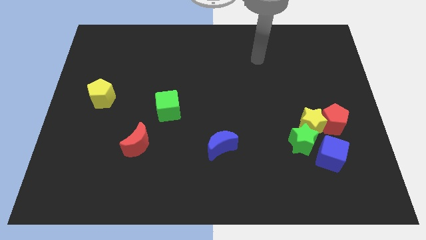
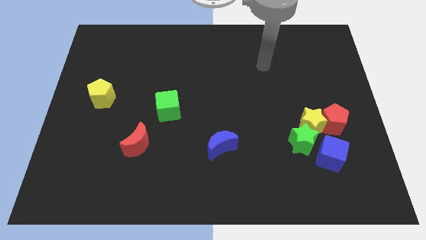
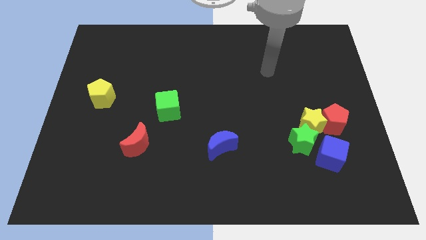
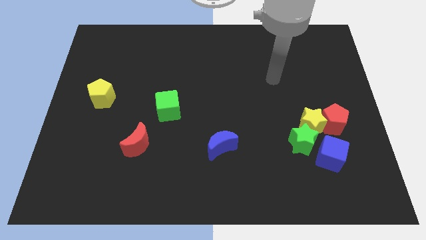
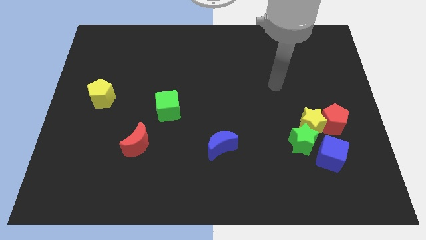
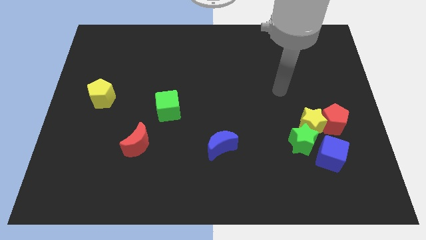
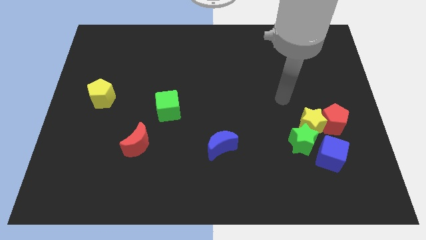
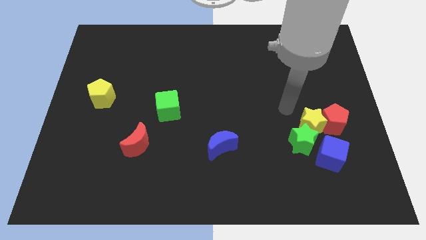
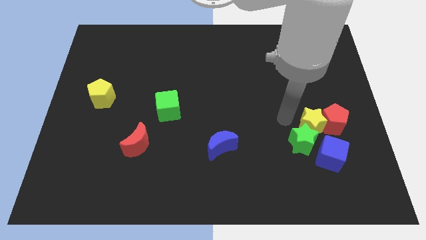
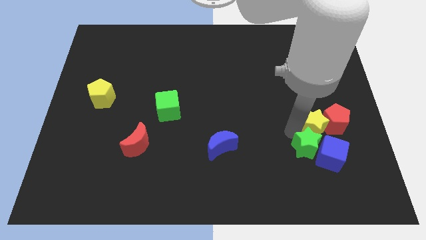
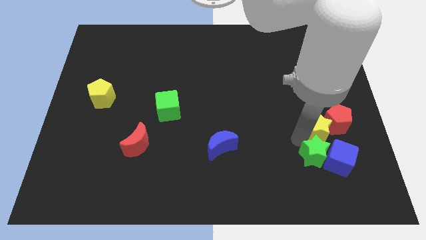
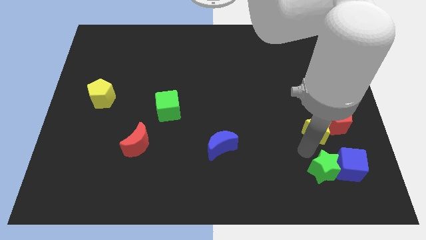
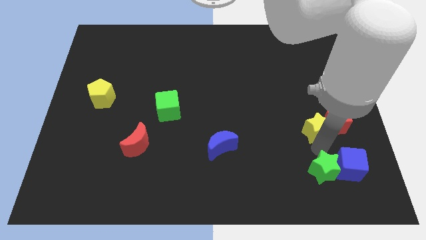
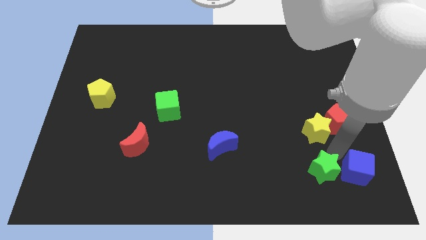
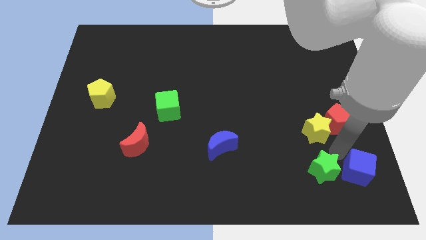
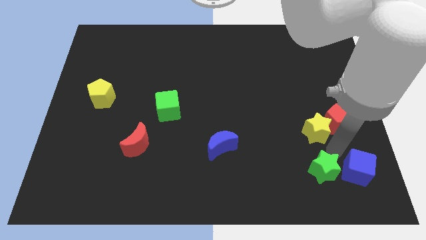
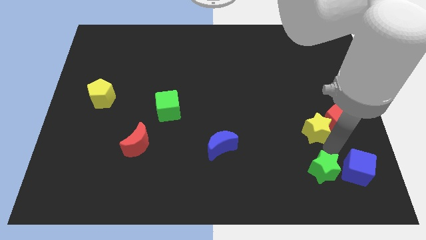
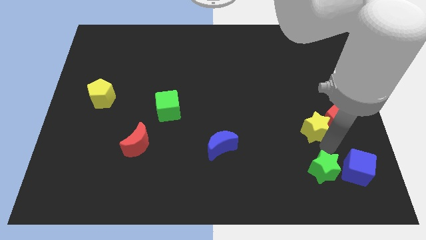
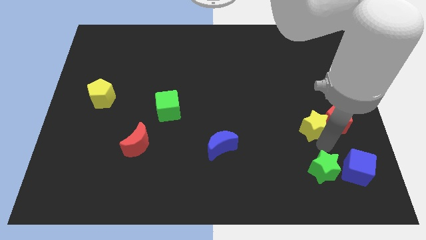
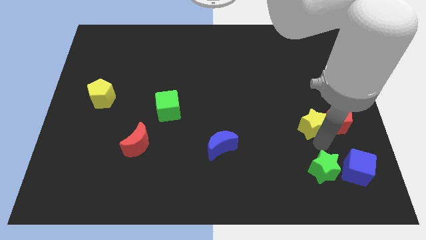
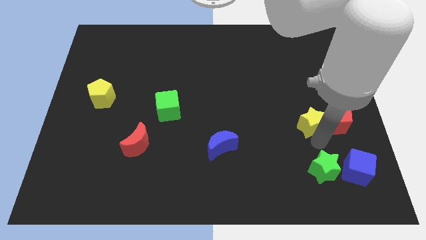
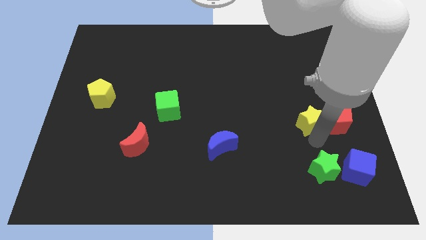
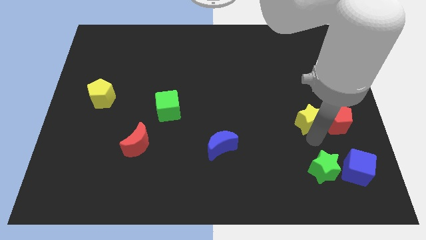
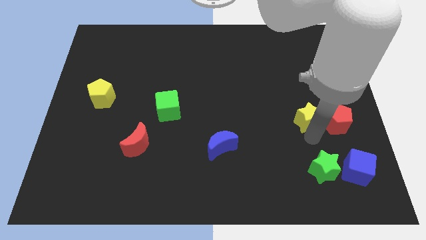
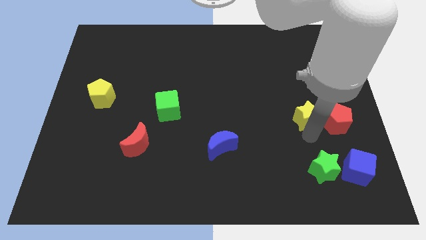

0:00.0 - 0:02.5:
pull the yellow star apart from the green star, red pentagon, and blue cube

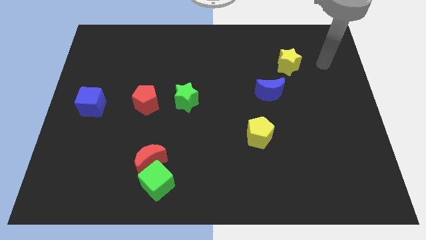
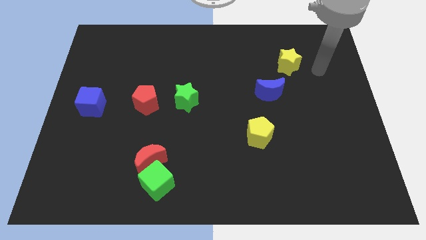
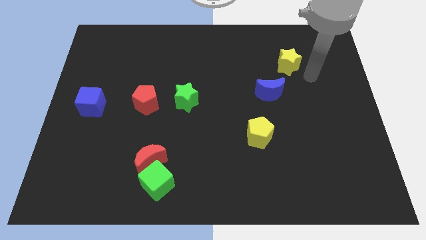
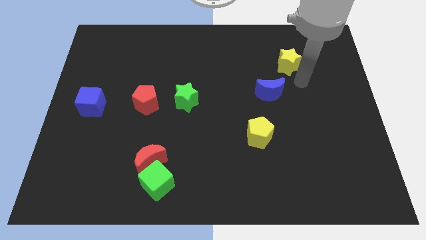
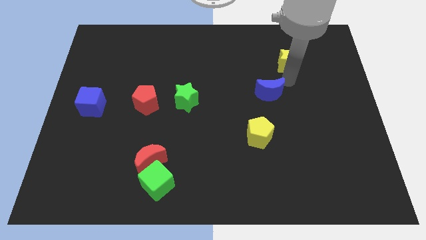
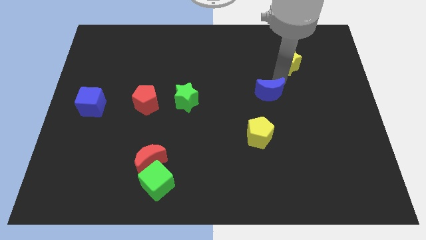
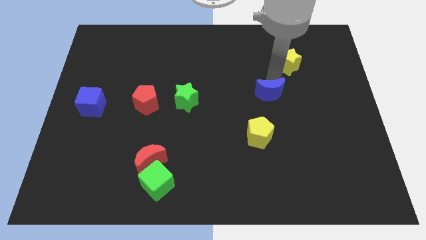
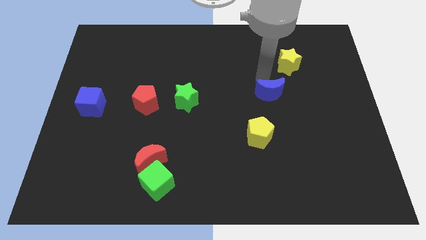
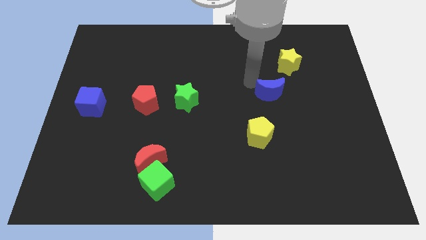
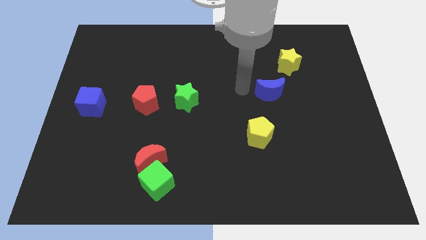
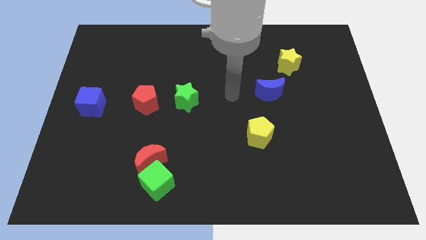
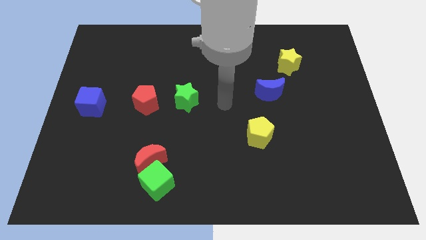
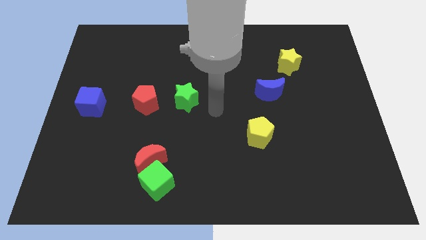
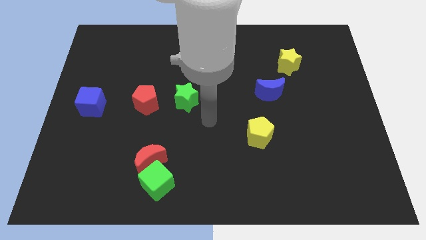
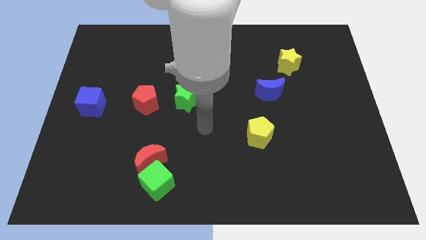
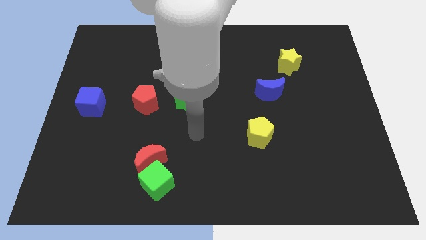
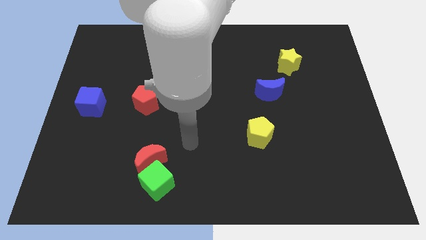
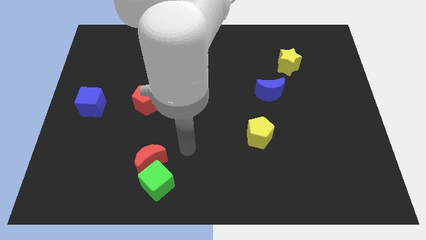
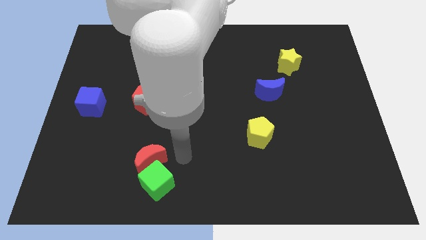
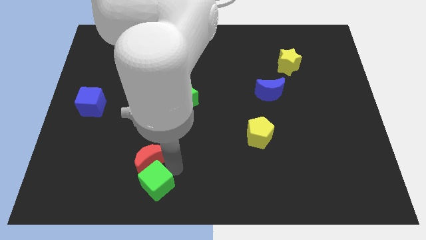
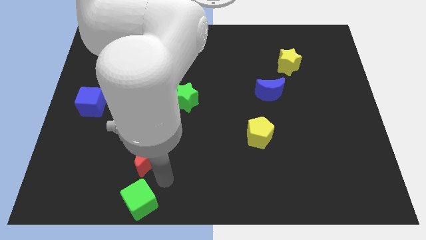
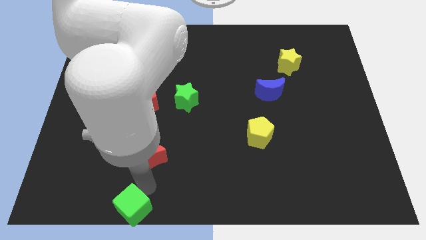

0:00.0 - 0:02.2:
separate the red moon from the green cube

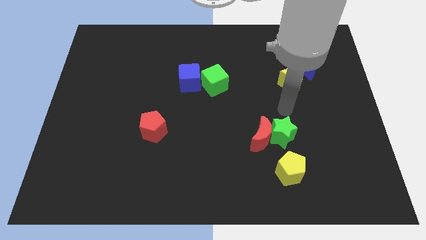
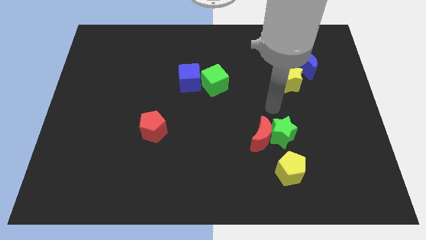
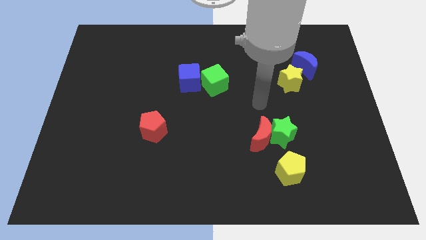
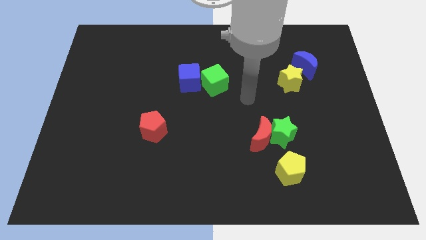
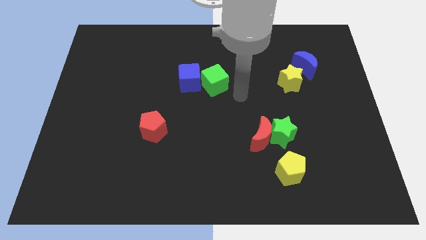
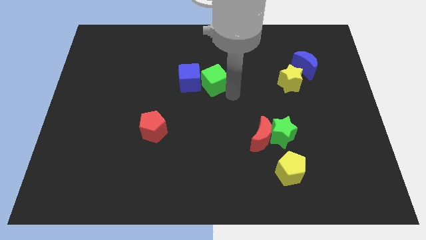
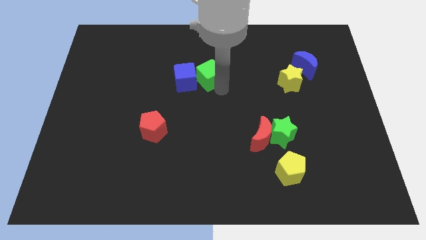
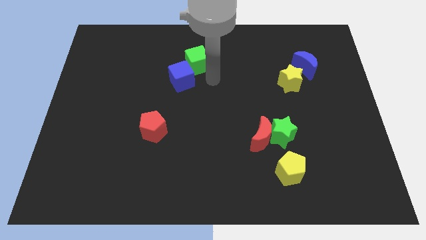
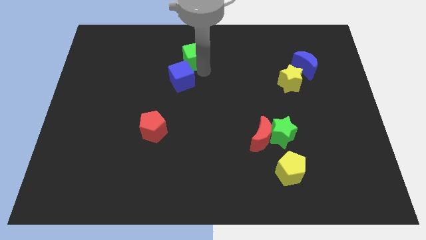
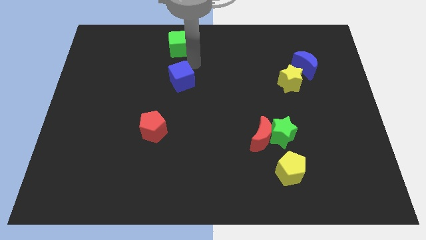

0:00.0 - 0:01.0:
pull the blue cube apart from the green cube

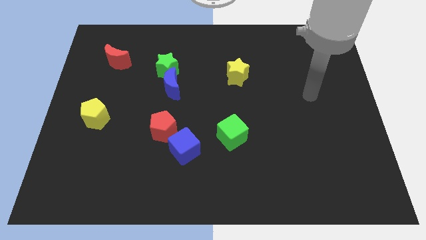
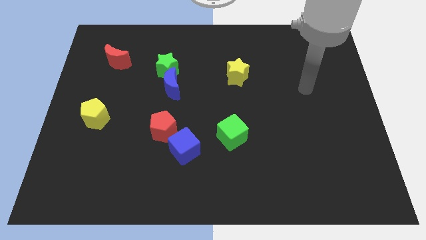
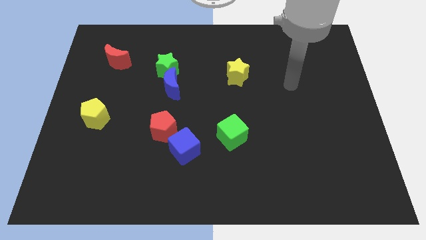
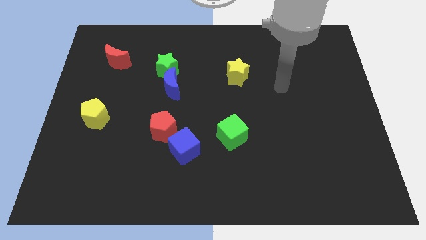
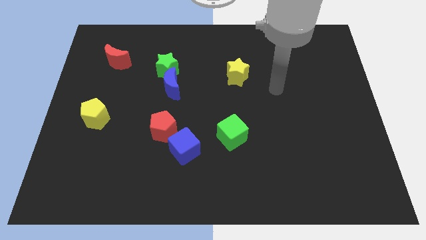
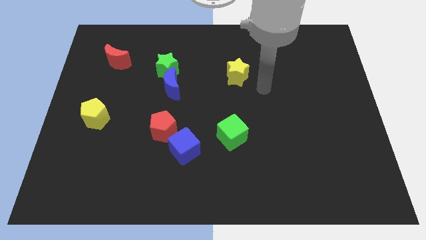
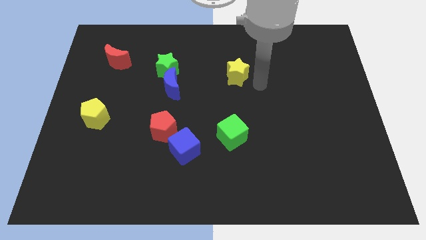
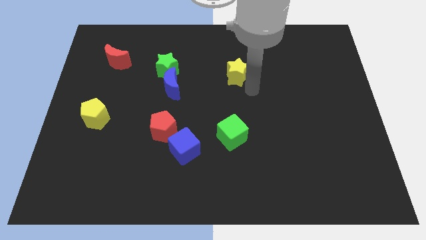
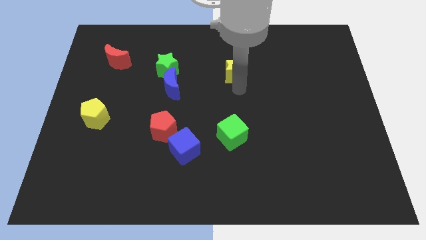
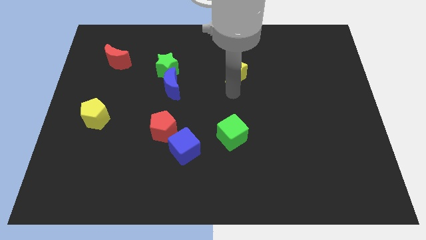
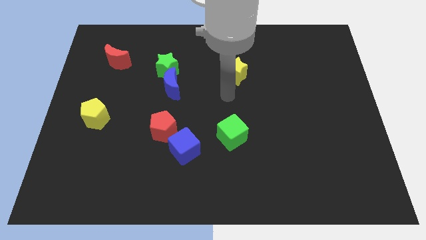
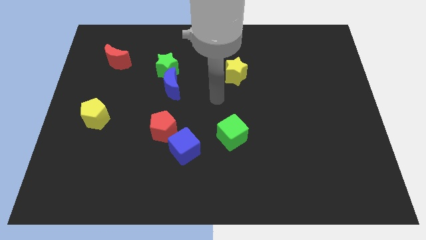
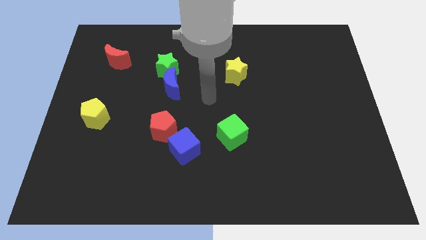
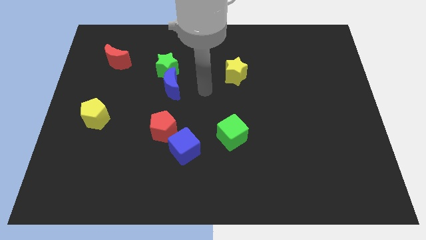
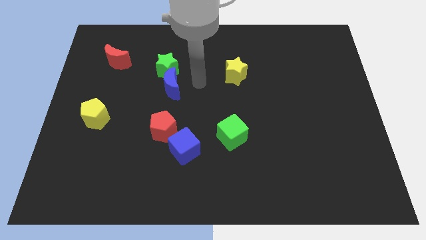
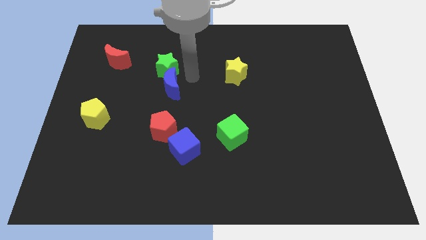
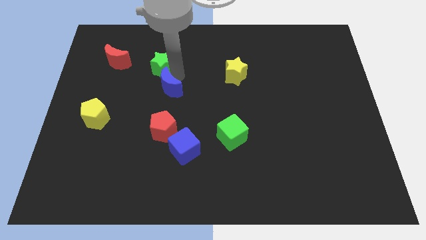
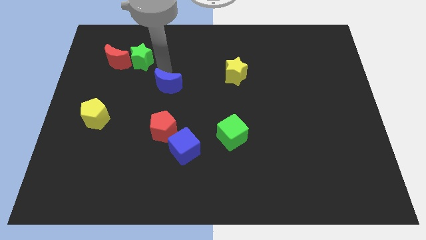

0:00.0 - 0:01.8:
separate the blue moon from the green star

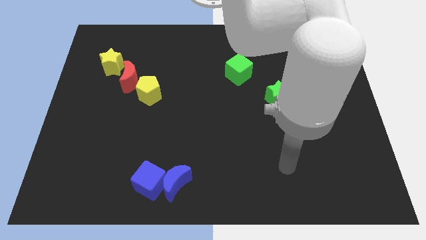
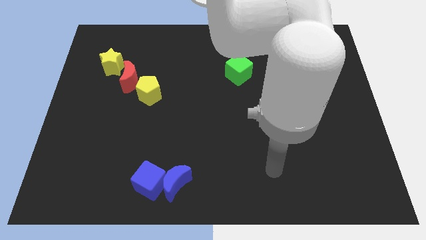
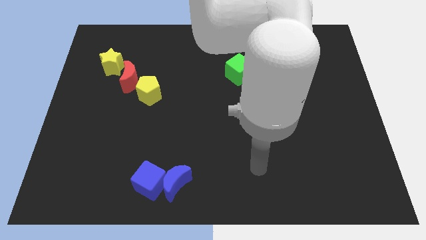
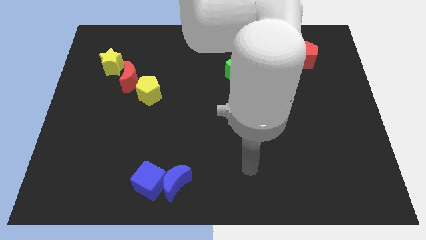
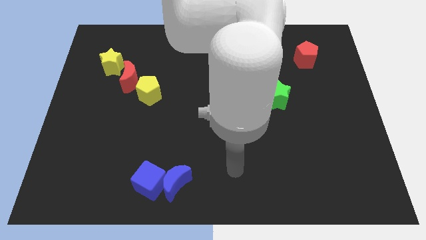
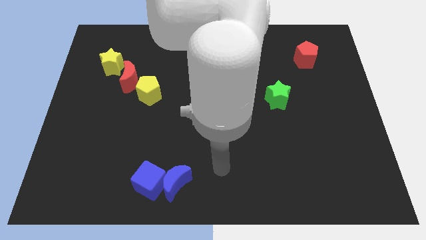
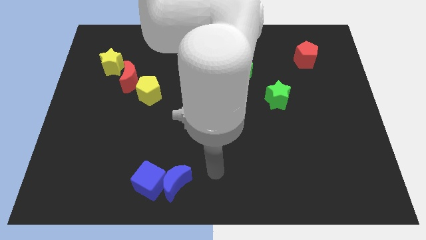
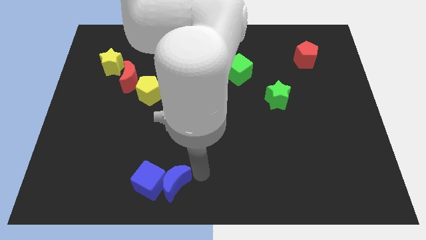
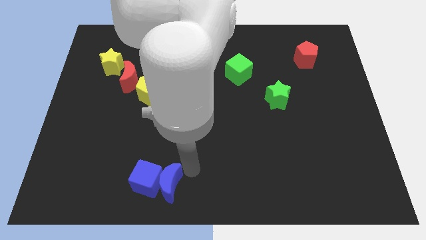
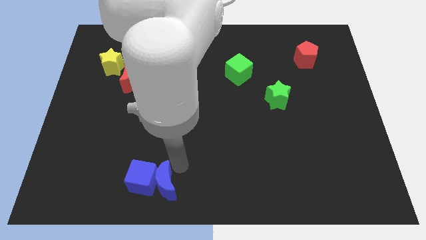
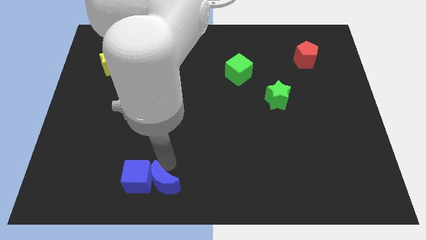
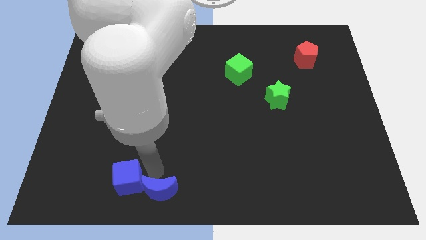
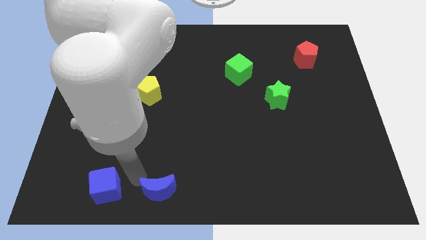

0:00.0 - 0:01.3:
pull the blue moon apart from the blue cube

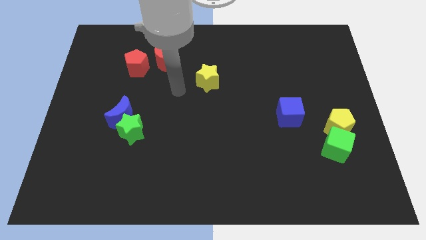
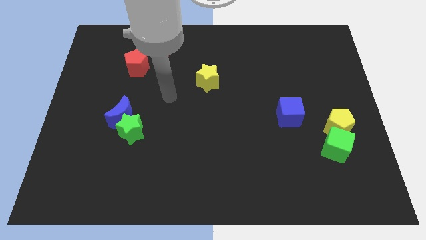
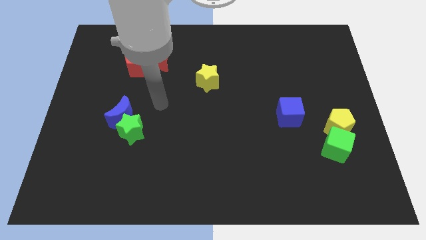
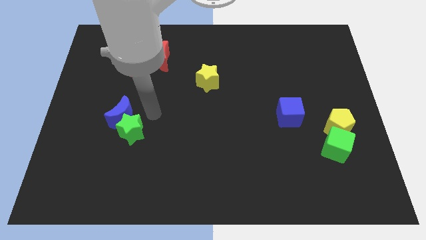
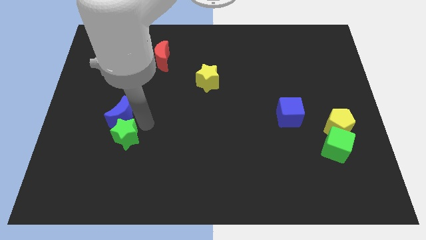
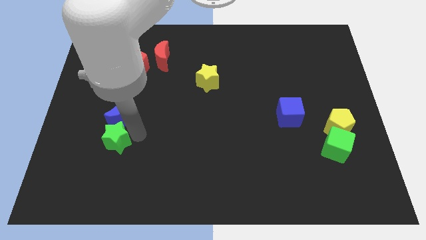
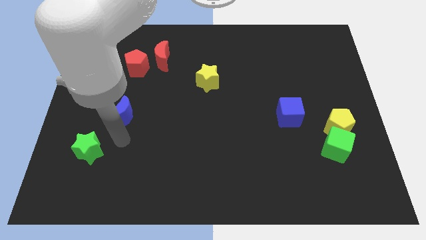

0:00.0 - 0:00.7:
pull the blue moon apart from the green star
